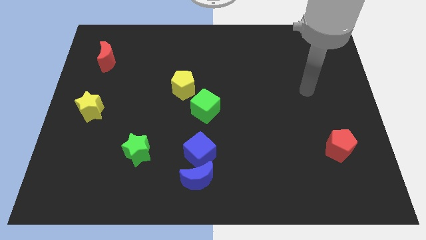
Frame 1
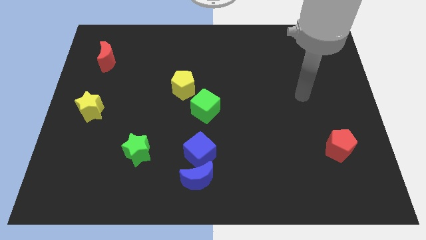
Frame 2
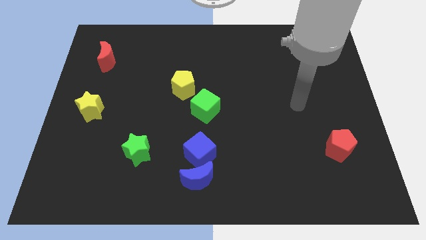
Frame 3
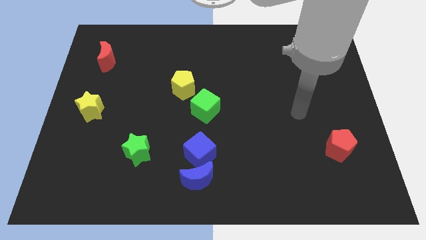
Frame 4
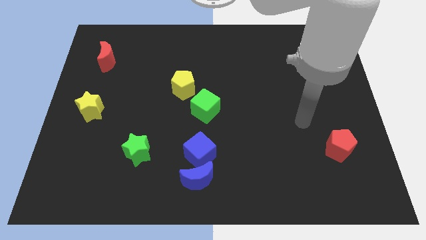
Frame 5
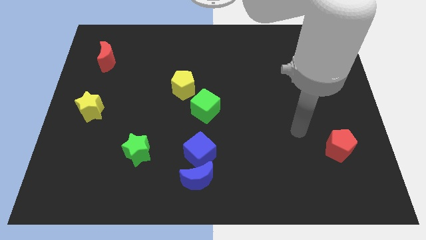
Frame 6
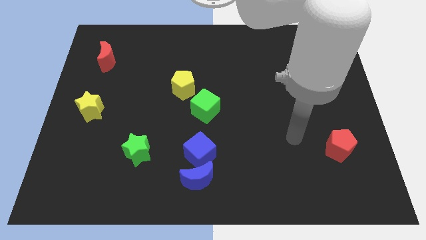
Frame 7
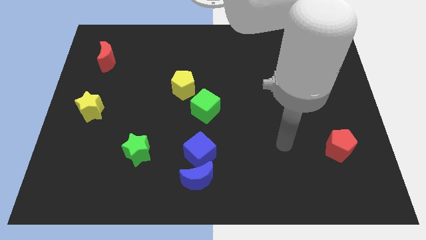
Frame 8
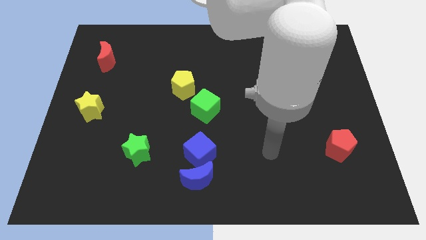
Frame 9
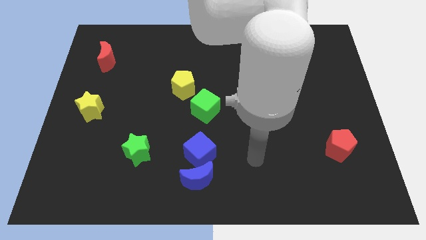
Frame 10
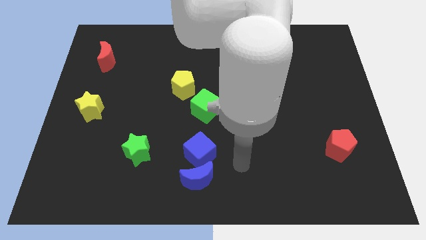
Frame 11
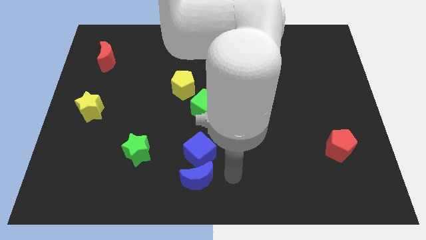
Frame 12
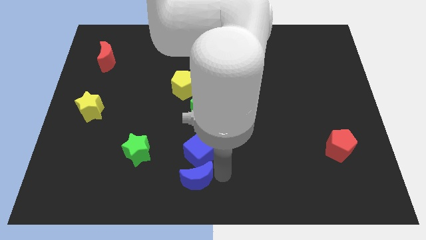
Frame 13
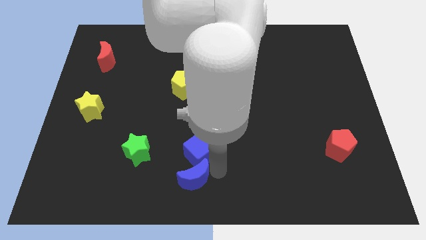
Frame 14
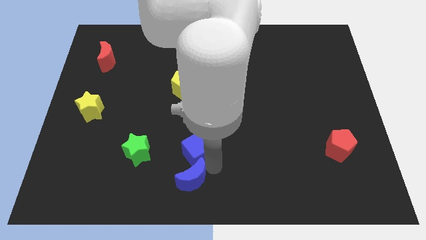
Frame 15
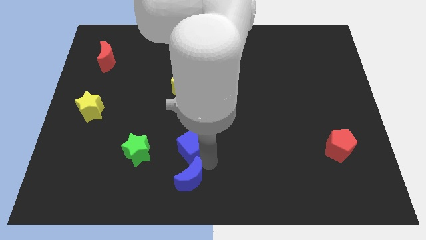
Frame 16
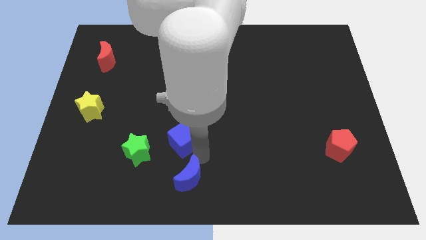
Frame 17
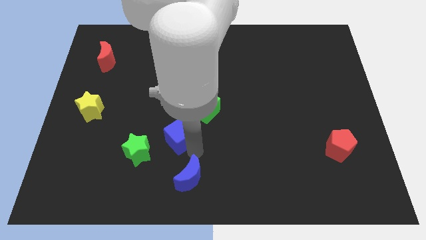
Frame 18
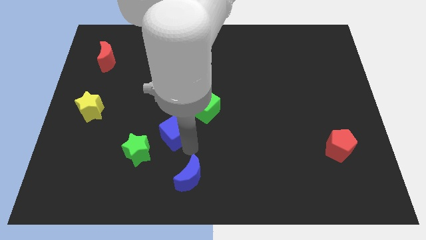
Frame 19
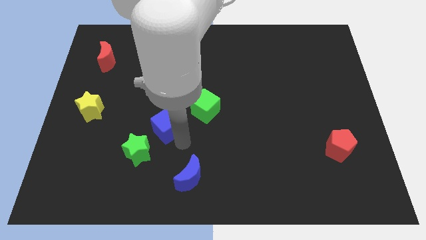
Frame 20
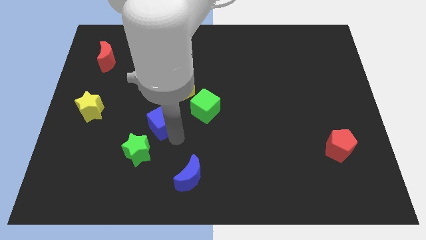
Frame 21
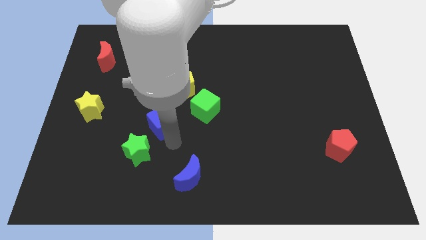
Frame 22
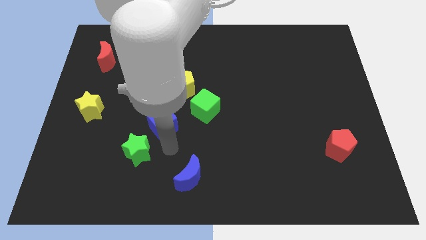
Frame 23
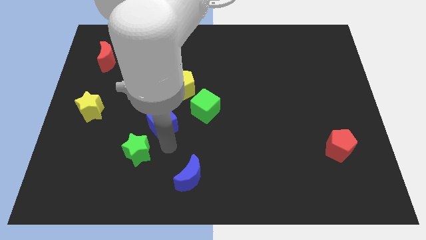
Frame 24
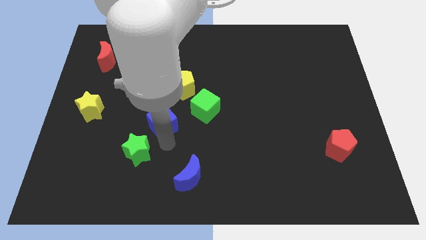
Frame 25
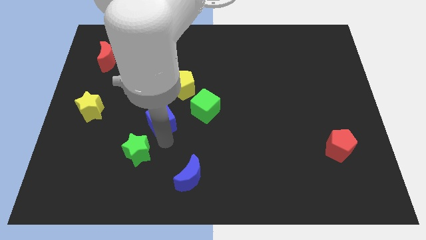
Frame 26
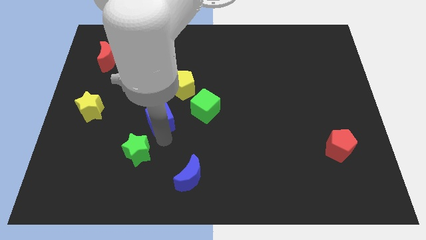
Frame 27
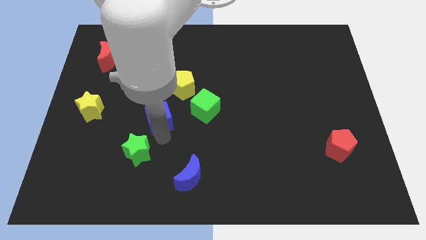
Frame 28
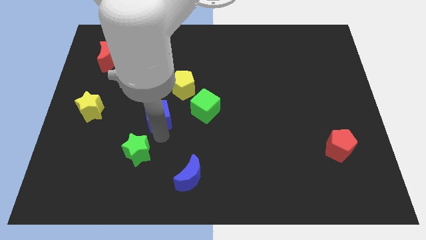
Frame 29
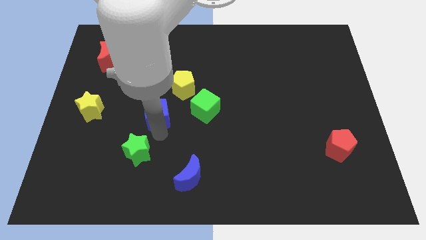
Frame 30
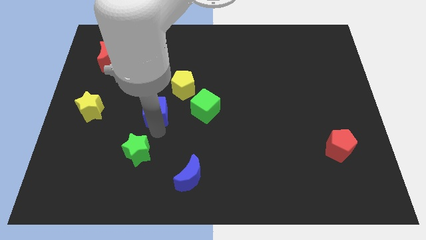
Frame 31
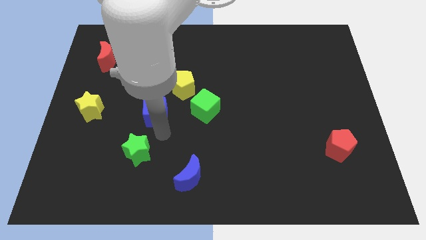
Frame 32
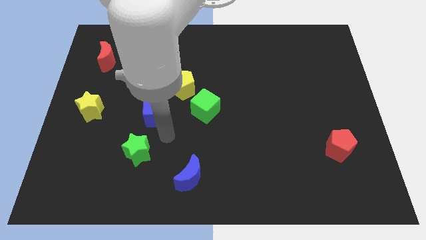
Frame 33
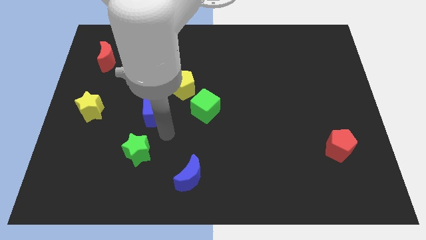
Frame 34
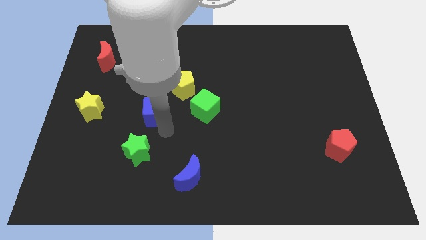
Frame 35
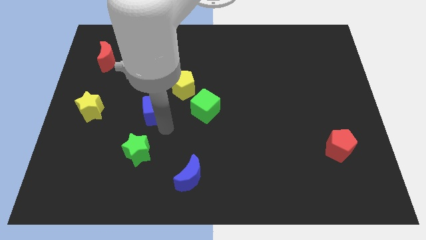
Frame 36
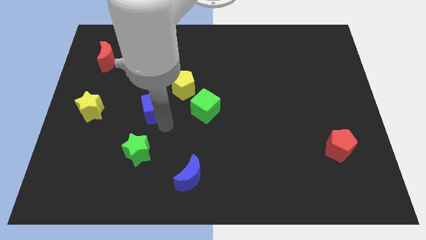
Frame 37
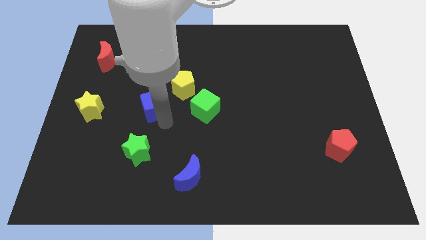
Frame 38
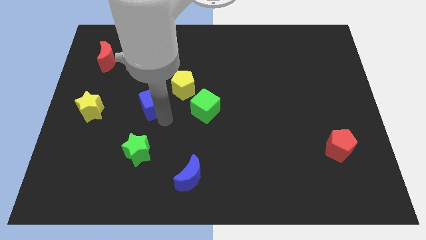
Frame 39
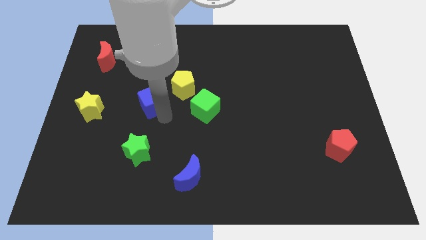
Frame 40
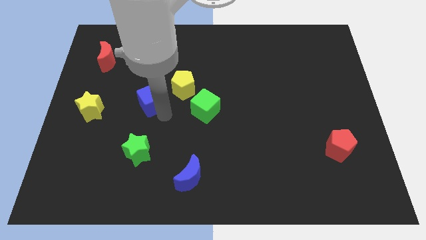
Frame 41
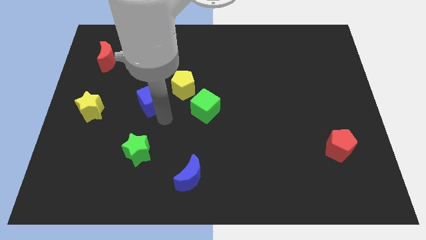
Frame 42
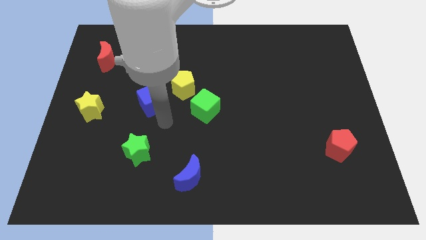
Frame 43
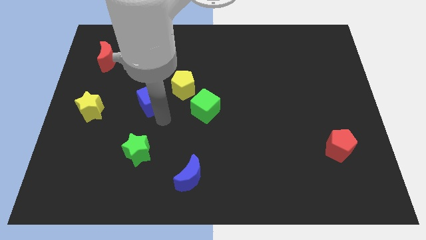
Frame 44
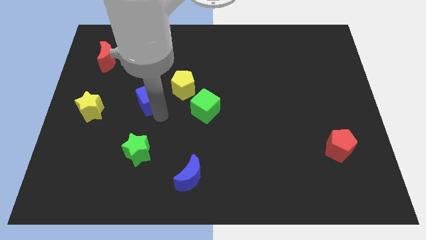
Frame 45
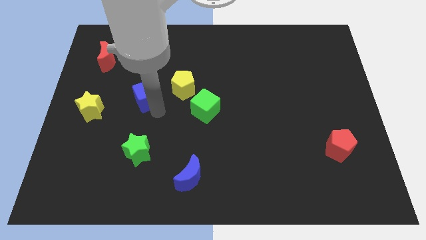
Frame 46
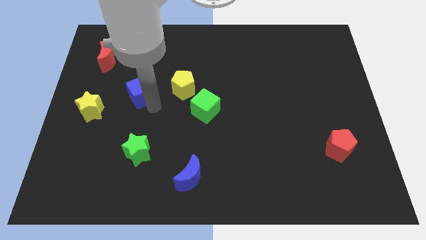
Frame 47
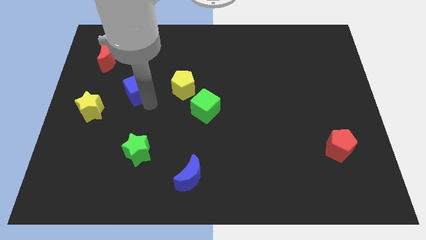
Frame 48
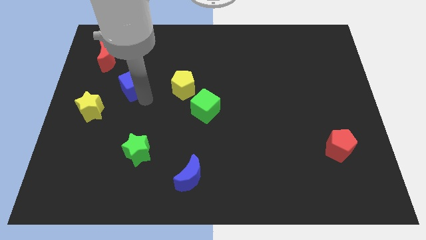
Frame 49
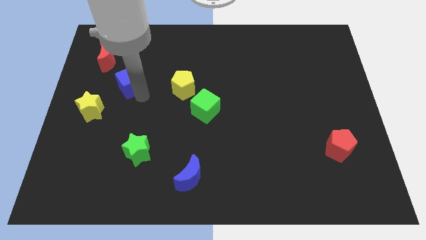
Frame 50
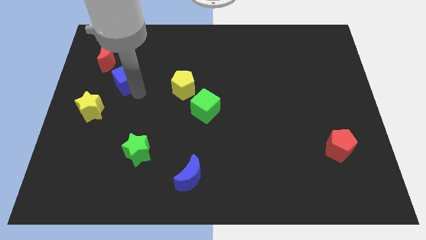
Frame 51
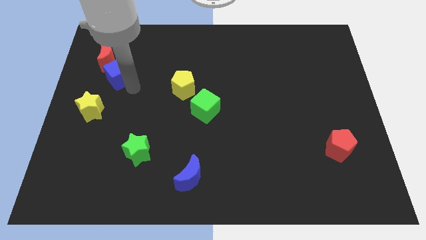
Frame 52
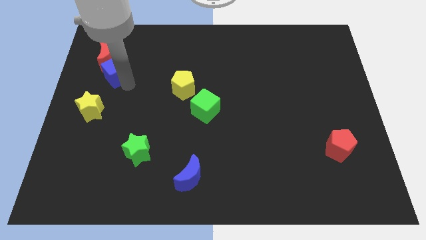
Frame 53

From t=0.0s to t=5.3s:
put the blue cube towards the red moon

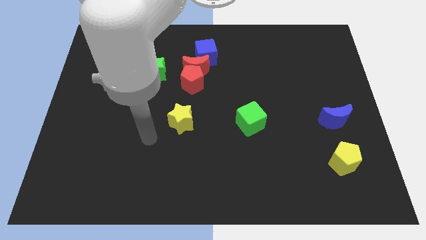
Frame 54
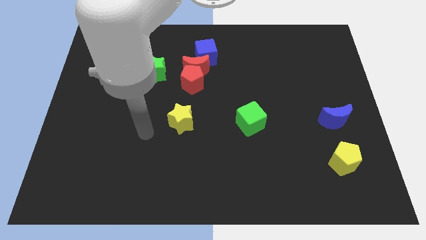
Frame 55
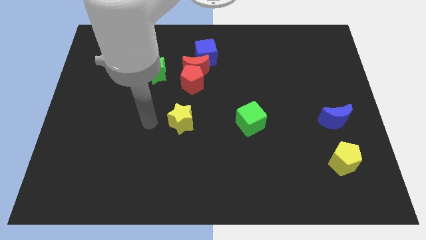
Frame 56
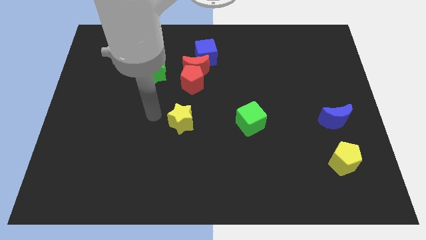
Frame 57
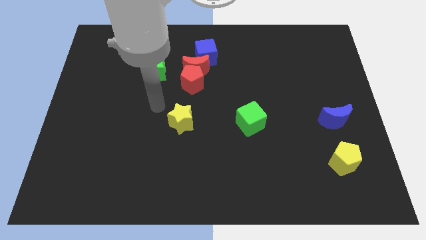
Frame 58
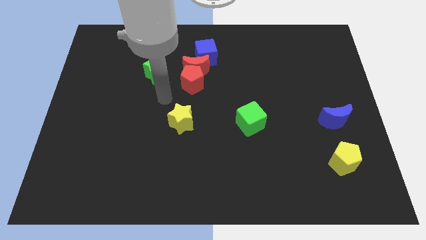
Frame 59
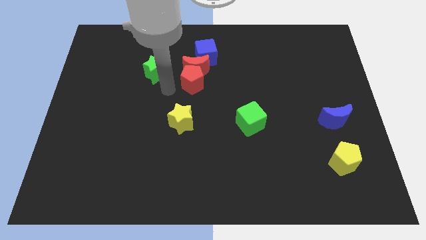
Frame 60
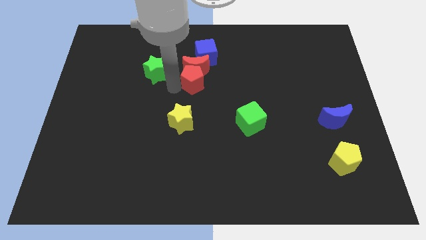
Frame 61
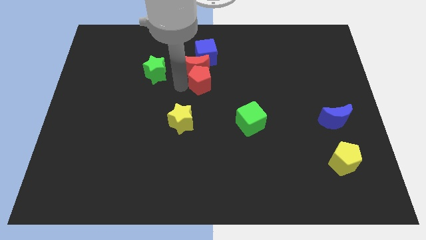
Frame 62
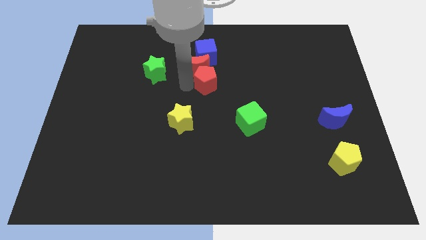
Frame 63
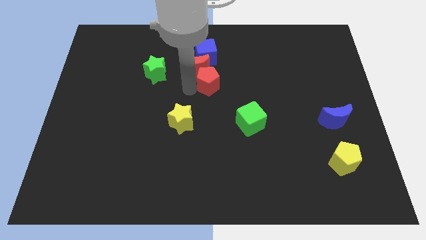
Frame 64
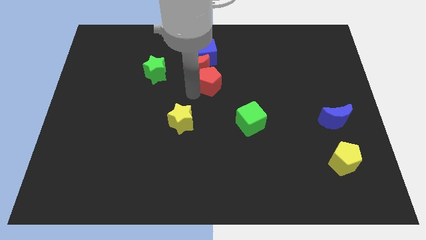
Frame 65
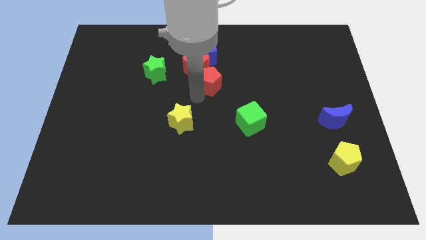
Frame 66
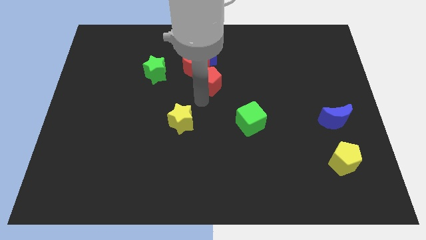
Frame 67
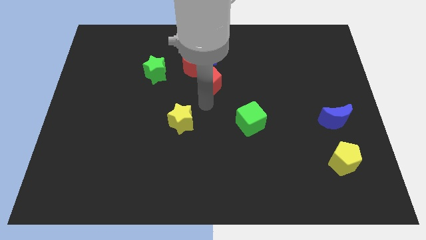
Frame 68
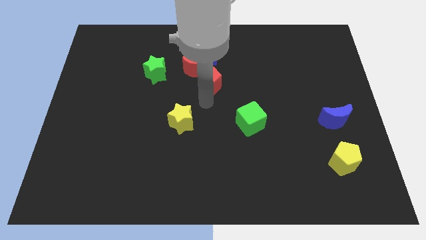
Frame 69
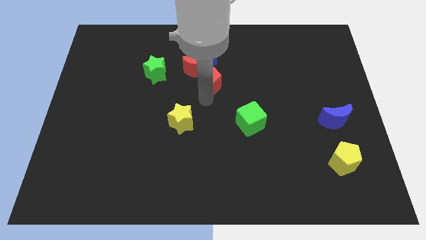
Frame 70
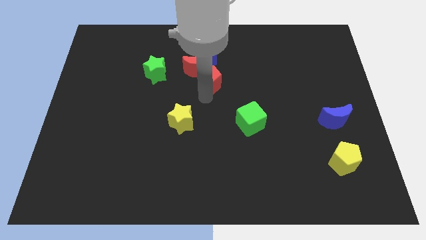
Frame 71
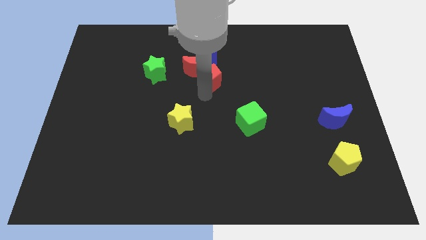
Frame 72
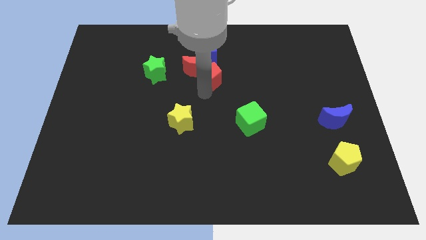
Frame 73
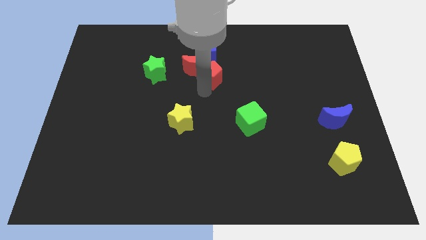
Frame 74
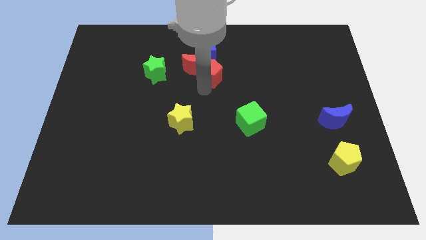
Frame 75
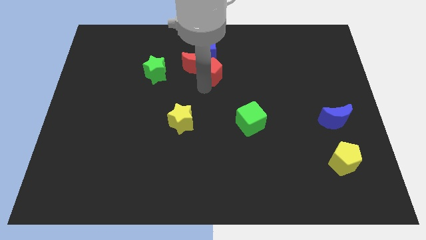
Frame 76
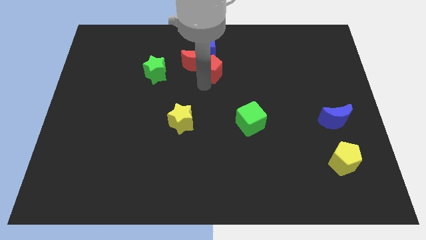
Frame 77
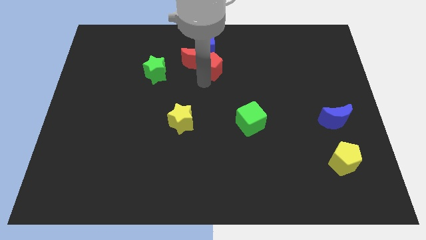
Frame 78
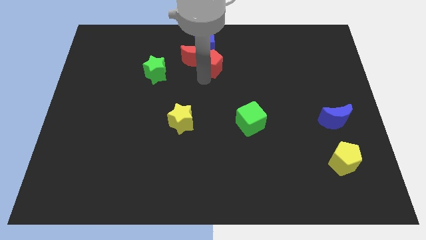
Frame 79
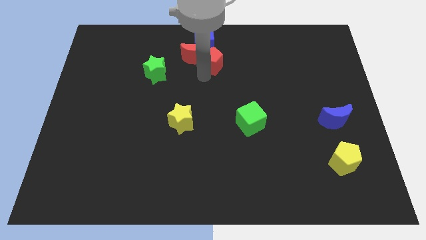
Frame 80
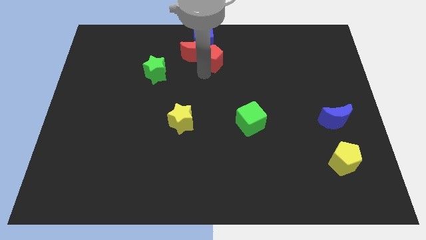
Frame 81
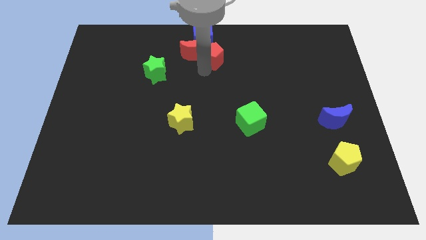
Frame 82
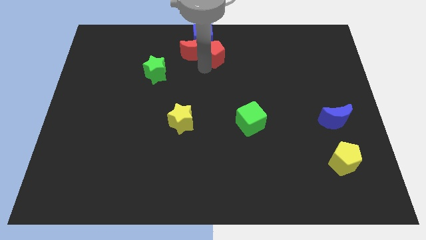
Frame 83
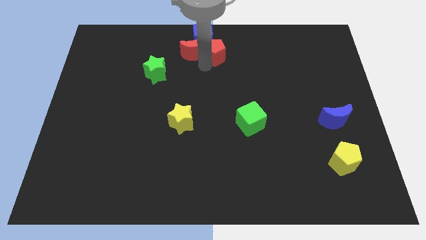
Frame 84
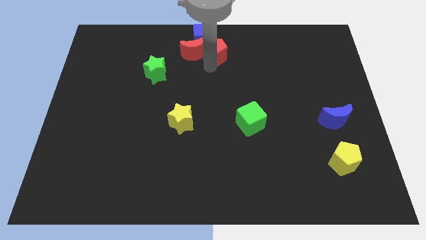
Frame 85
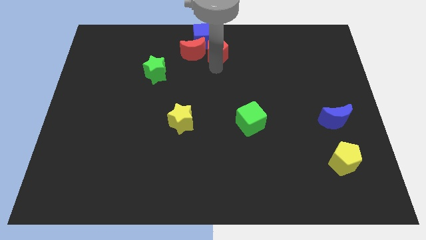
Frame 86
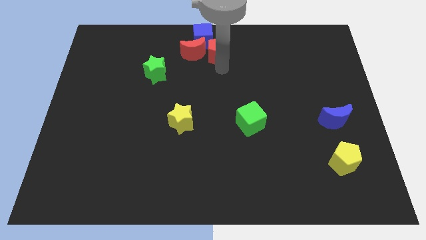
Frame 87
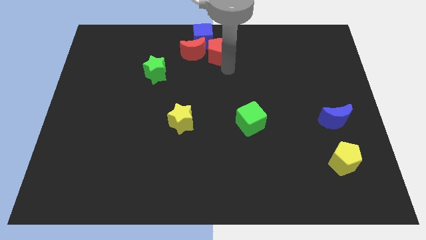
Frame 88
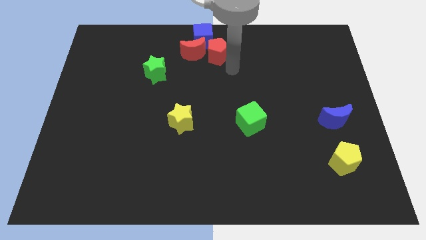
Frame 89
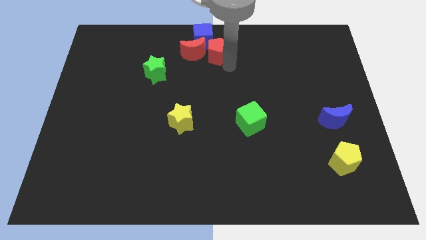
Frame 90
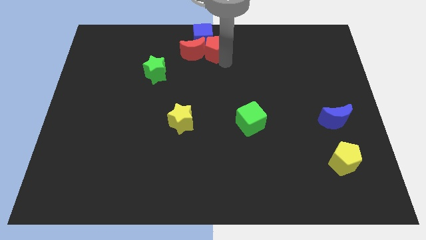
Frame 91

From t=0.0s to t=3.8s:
push the red pentagon to the blue cube
